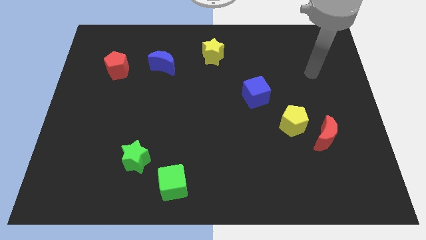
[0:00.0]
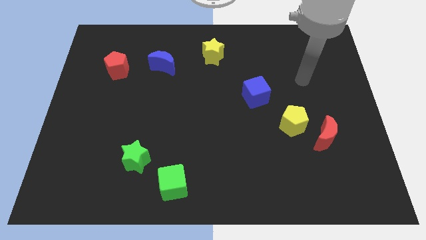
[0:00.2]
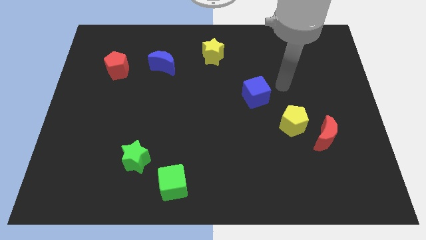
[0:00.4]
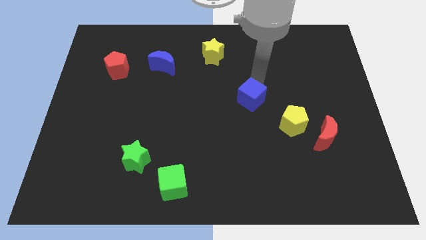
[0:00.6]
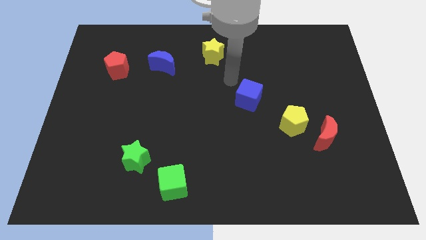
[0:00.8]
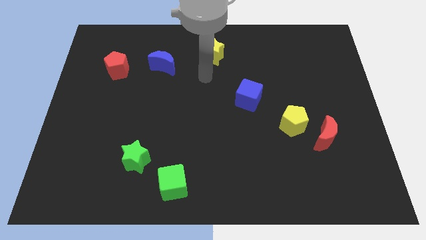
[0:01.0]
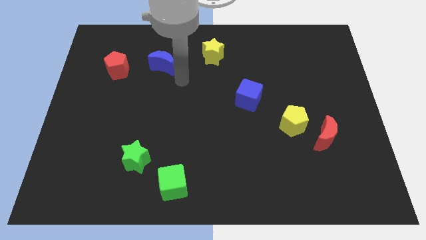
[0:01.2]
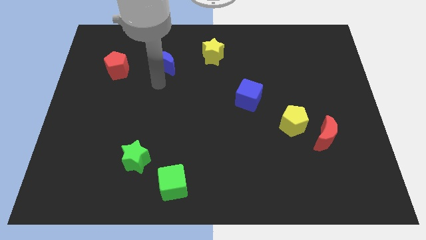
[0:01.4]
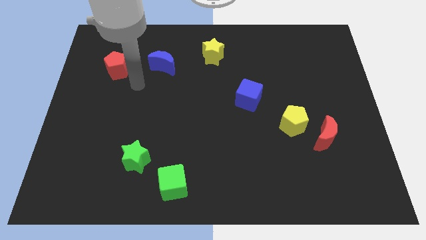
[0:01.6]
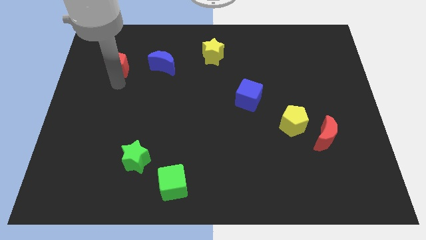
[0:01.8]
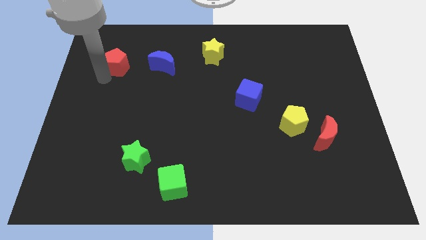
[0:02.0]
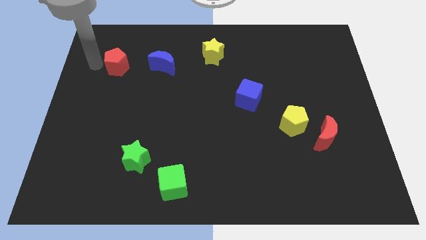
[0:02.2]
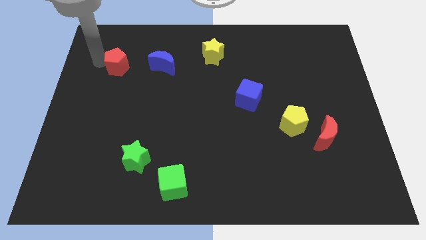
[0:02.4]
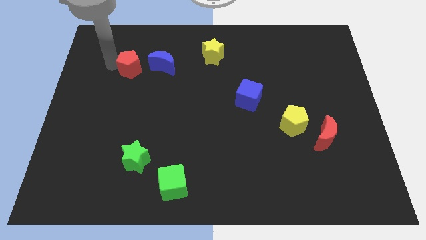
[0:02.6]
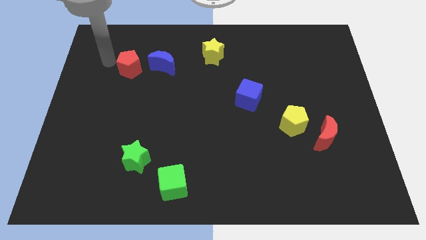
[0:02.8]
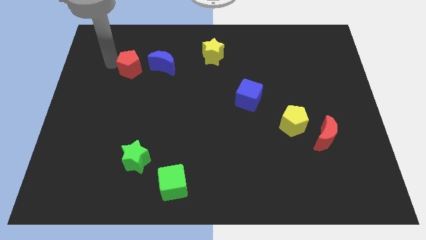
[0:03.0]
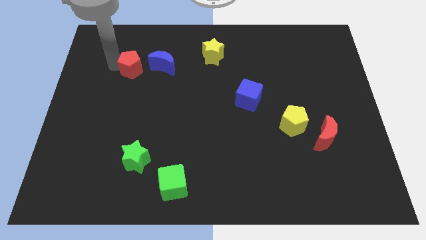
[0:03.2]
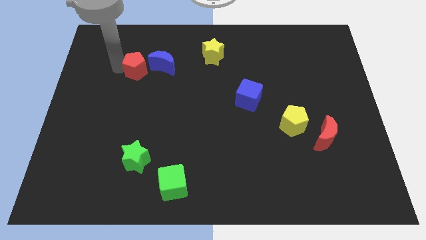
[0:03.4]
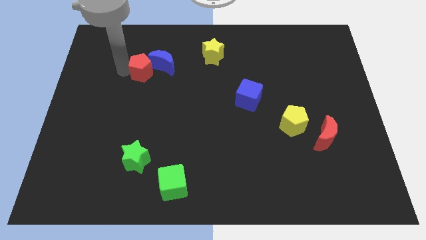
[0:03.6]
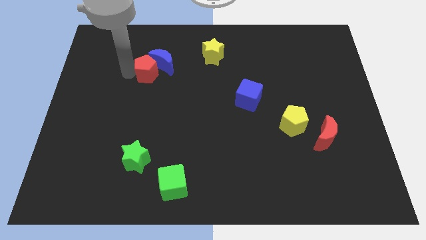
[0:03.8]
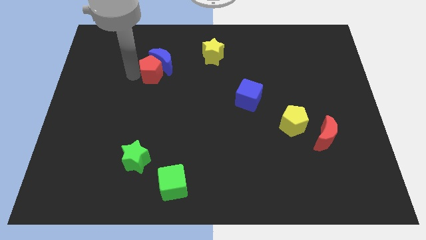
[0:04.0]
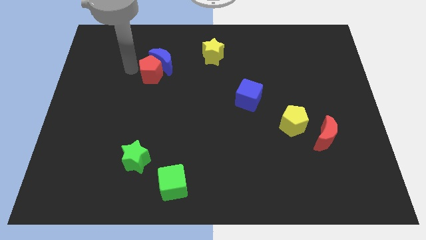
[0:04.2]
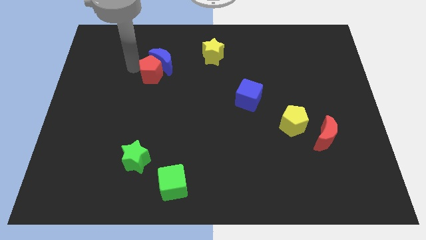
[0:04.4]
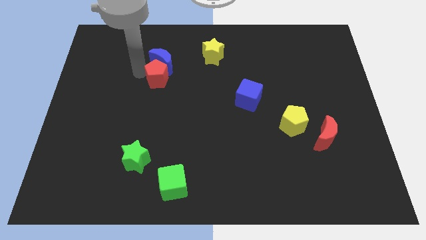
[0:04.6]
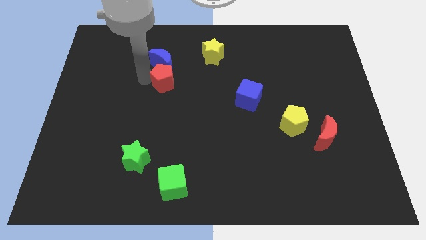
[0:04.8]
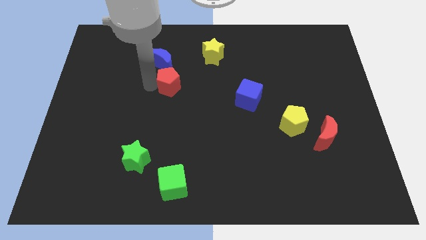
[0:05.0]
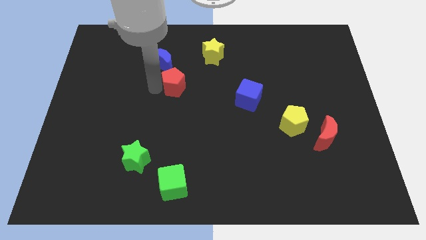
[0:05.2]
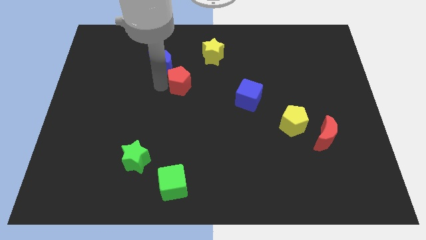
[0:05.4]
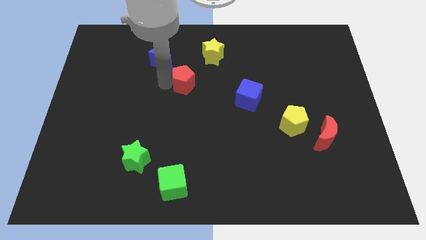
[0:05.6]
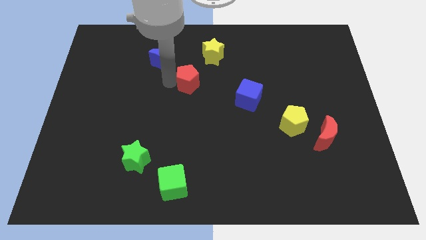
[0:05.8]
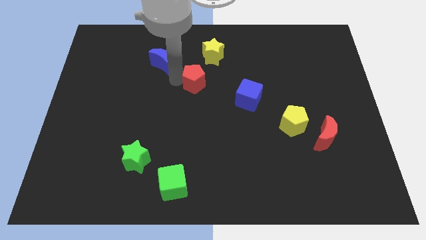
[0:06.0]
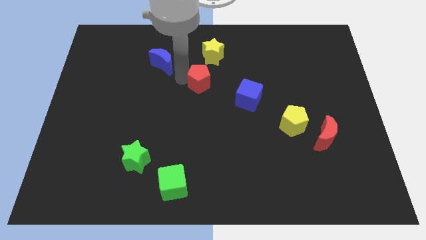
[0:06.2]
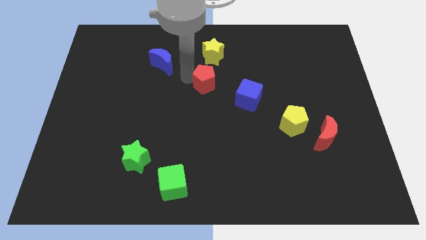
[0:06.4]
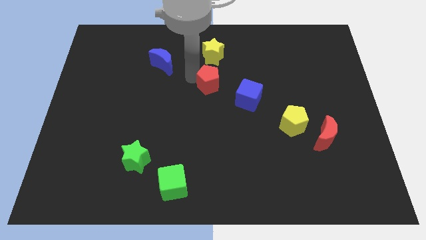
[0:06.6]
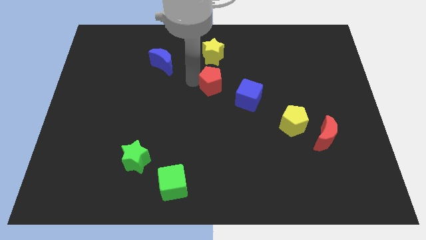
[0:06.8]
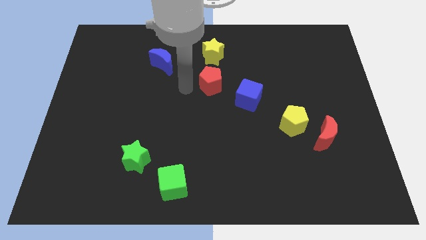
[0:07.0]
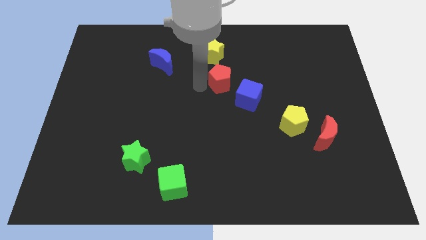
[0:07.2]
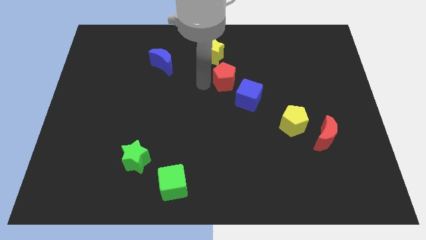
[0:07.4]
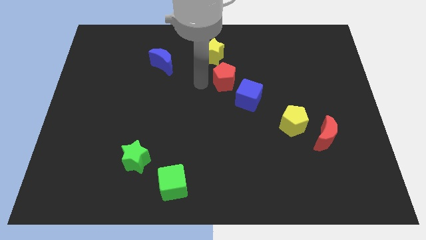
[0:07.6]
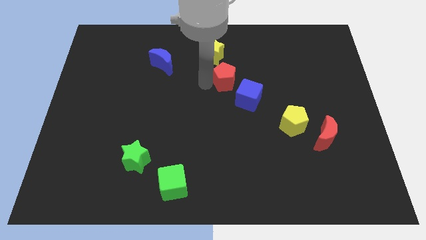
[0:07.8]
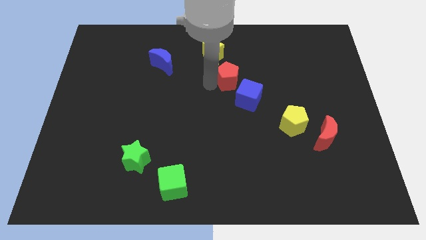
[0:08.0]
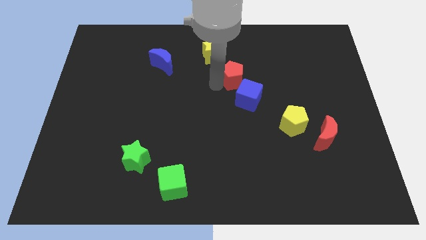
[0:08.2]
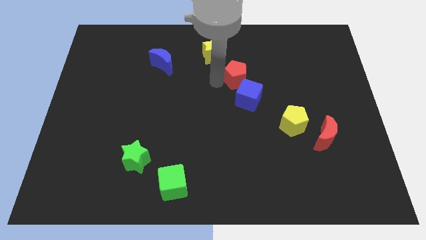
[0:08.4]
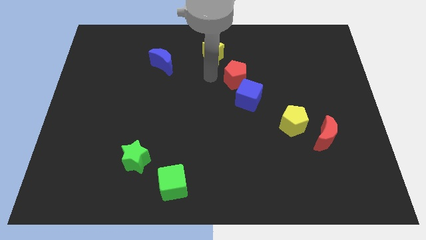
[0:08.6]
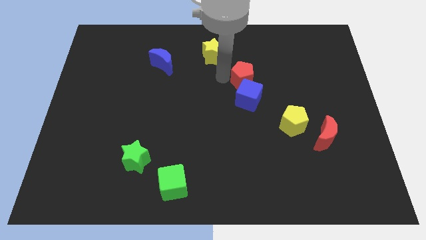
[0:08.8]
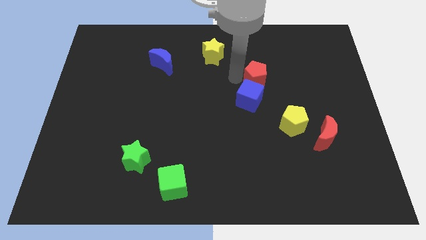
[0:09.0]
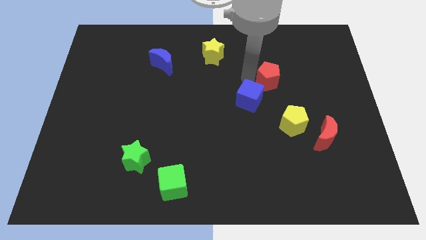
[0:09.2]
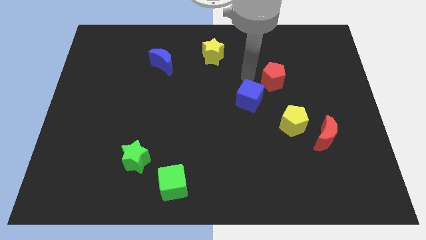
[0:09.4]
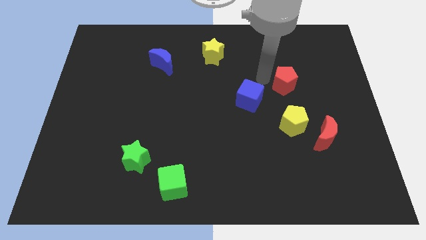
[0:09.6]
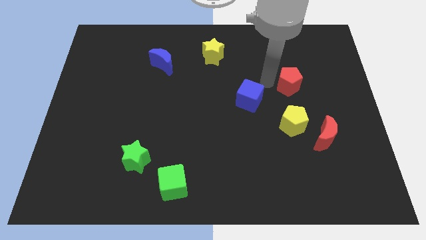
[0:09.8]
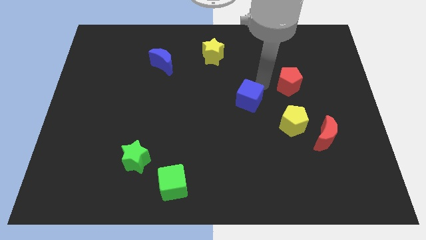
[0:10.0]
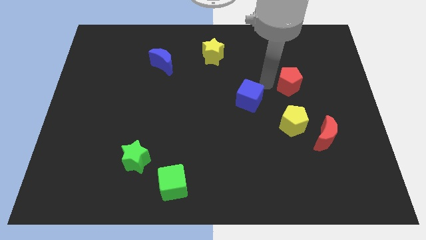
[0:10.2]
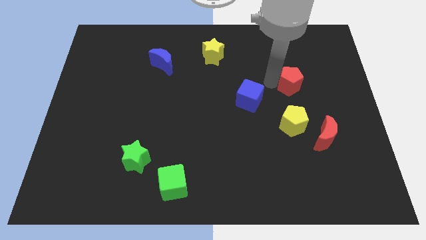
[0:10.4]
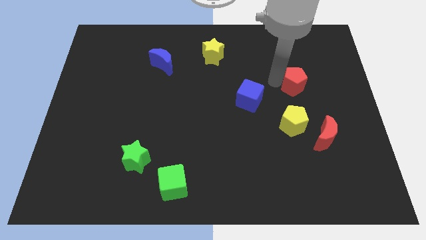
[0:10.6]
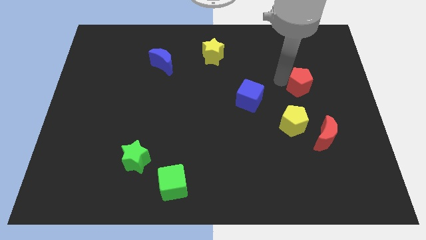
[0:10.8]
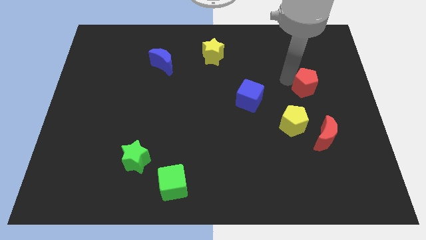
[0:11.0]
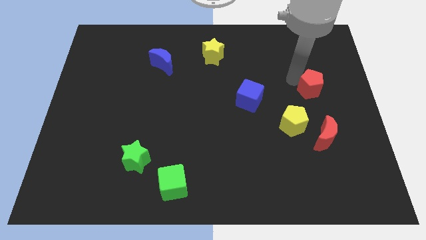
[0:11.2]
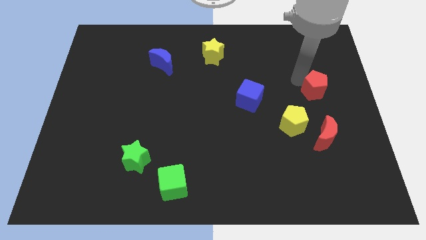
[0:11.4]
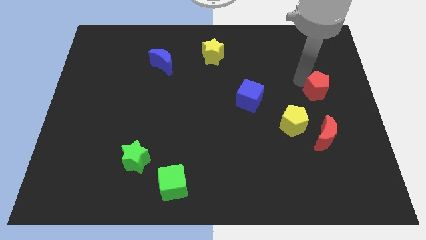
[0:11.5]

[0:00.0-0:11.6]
slide the red pentagon to the right side of the board
